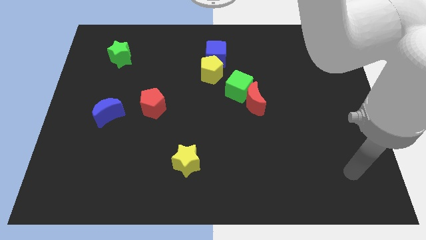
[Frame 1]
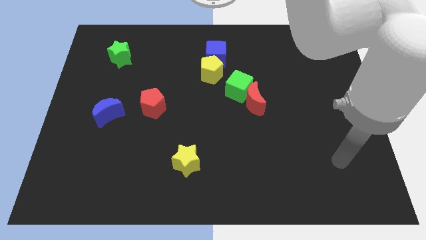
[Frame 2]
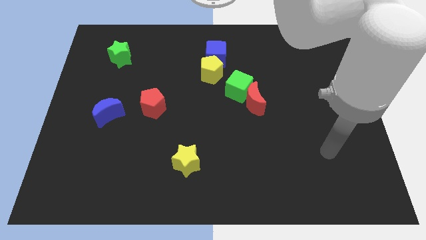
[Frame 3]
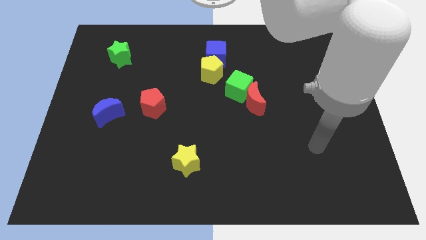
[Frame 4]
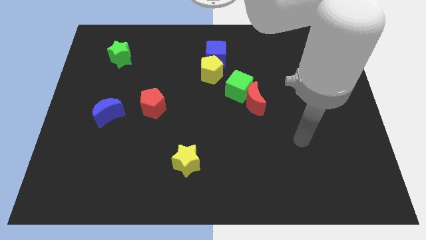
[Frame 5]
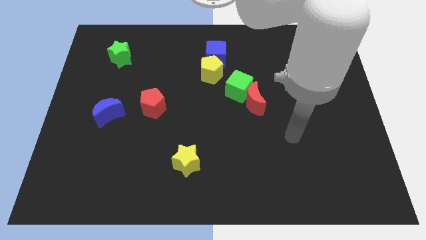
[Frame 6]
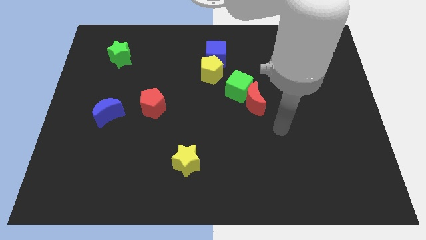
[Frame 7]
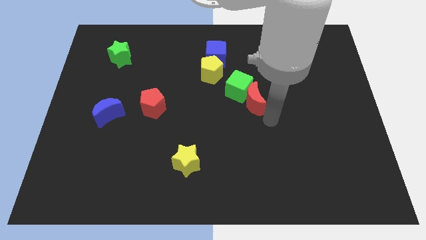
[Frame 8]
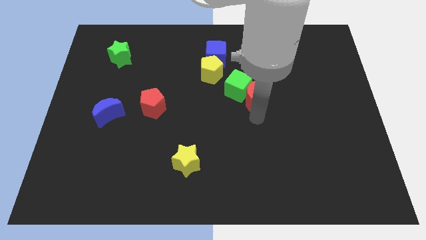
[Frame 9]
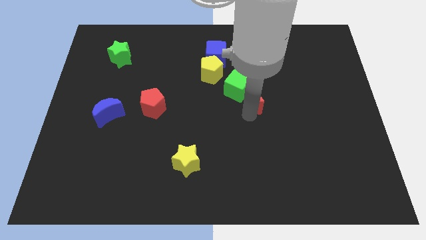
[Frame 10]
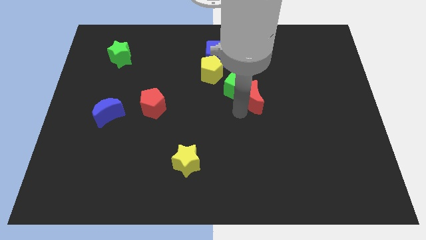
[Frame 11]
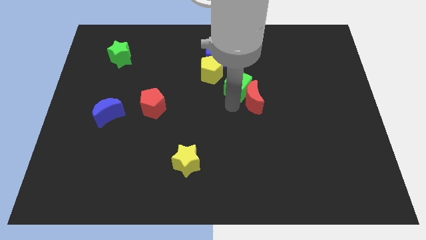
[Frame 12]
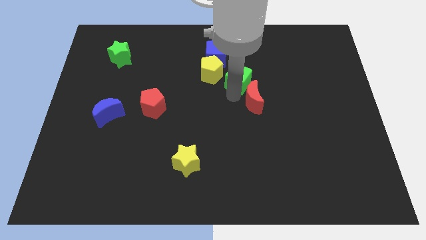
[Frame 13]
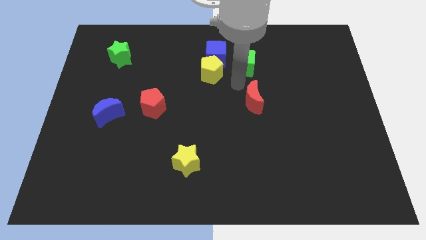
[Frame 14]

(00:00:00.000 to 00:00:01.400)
separate the red moon from the green cube

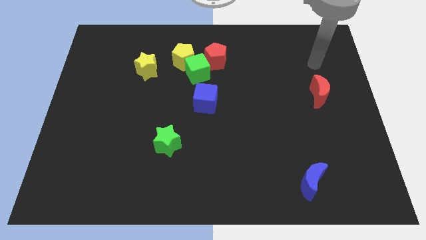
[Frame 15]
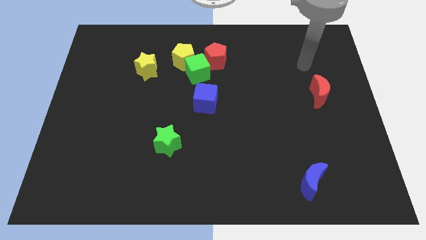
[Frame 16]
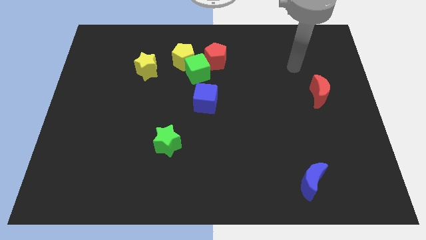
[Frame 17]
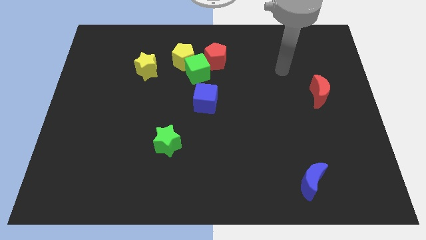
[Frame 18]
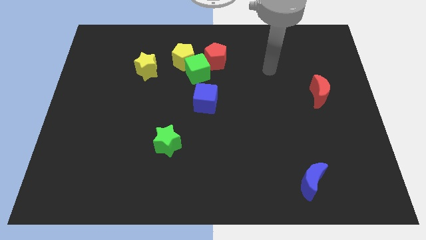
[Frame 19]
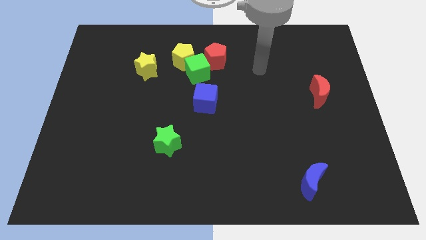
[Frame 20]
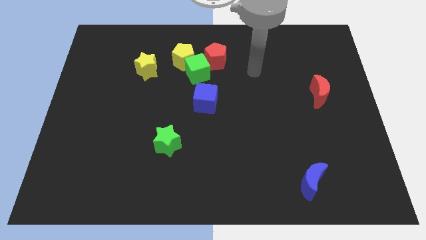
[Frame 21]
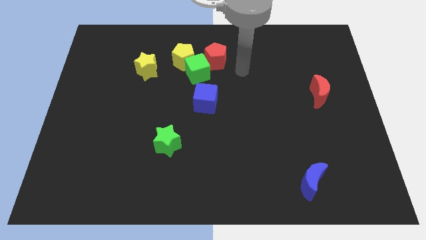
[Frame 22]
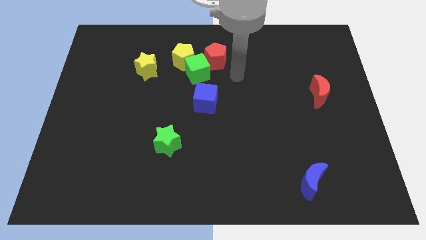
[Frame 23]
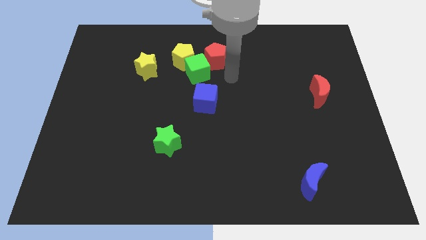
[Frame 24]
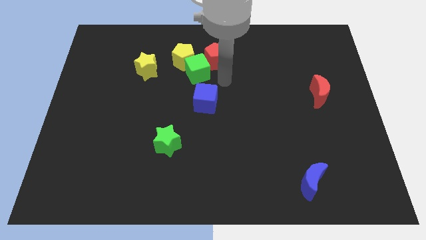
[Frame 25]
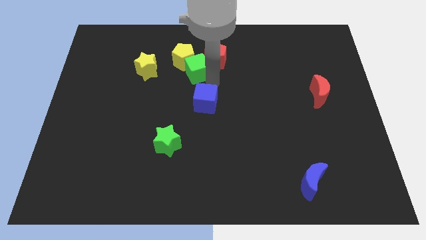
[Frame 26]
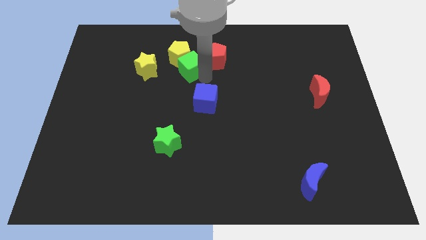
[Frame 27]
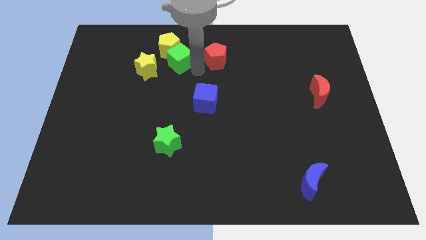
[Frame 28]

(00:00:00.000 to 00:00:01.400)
move the red pentagon away from the green cube and yellow pentagon

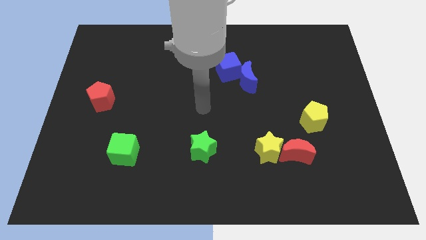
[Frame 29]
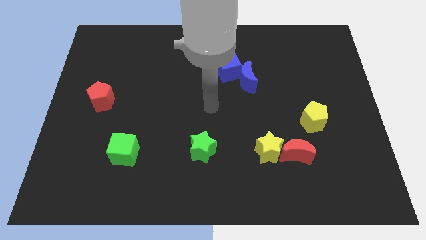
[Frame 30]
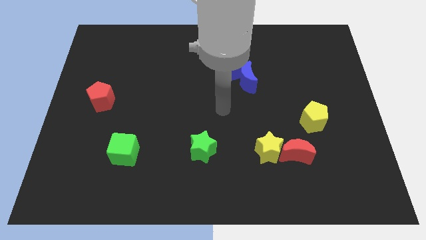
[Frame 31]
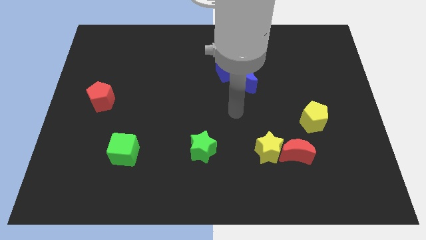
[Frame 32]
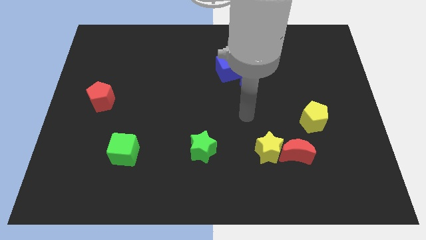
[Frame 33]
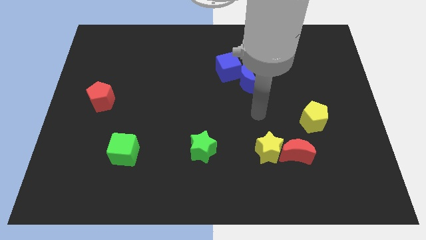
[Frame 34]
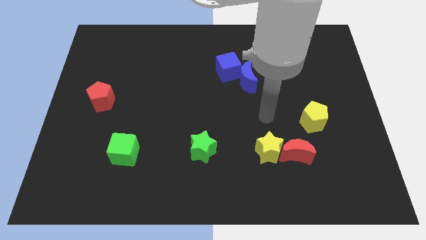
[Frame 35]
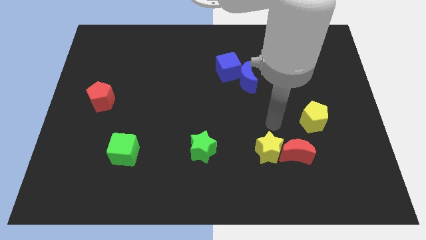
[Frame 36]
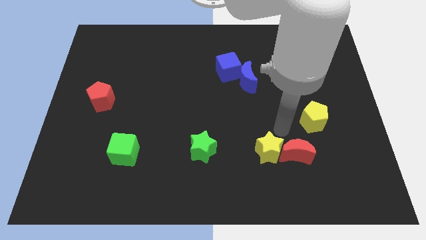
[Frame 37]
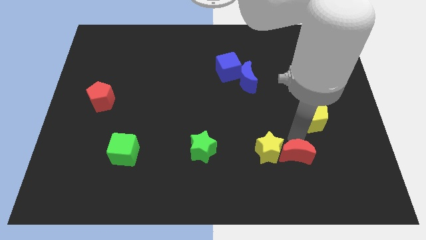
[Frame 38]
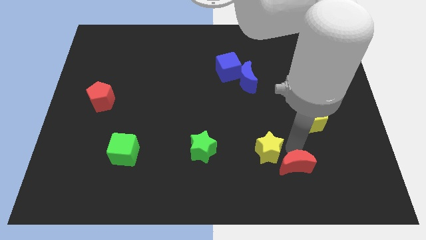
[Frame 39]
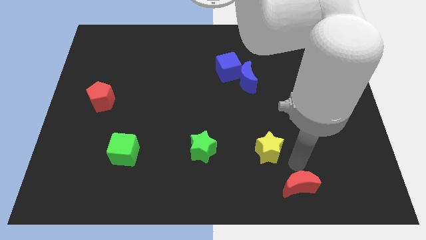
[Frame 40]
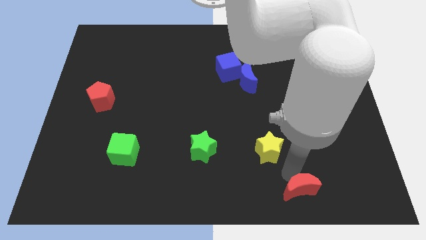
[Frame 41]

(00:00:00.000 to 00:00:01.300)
move the yellow star away from the red moon

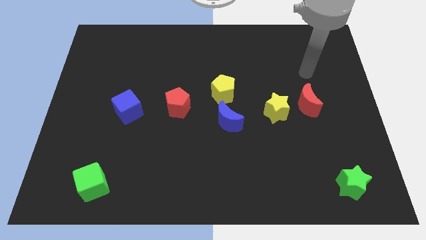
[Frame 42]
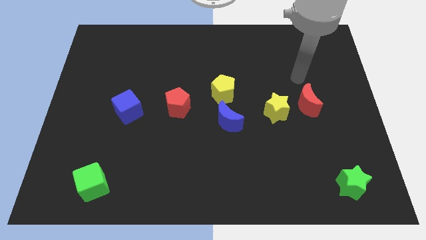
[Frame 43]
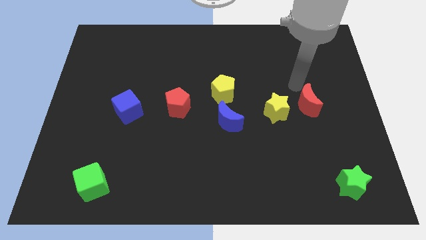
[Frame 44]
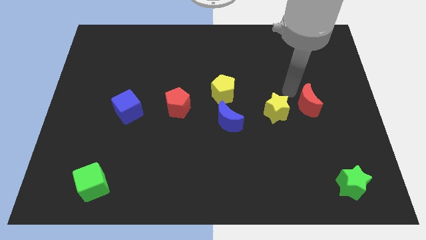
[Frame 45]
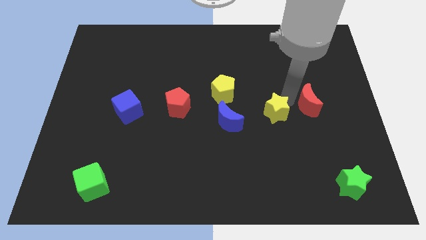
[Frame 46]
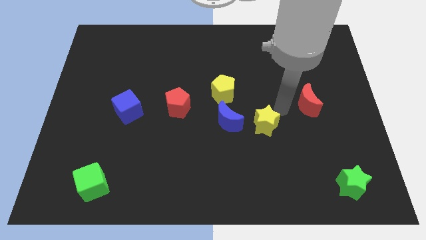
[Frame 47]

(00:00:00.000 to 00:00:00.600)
separate the red moon from the yellow star

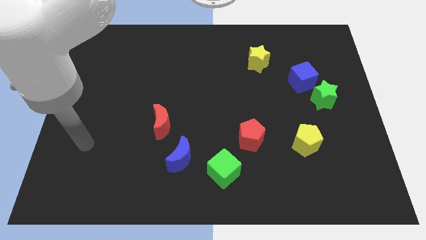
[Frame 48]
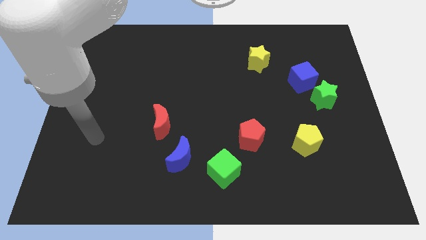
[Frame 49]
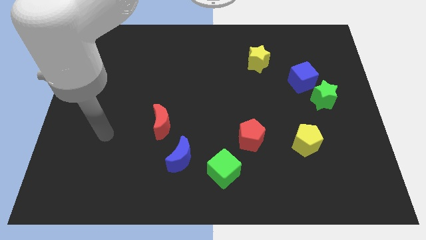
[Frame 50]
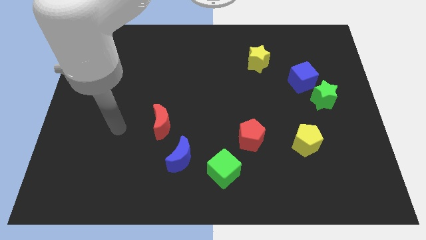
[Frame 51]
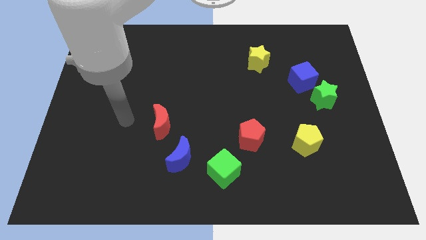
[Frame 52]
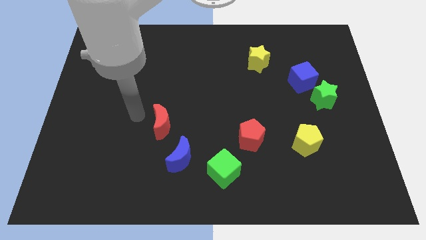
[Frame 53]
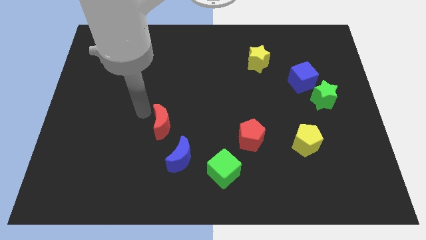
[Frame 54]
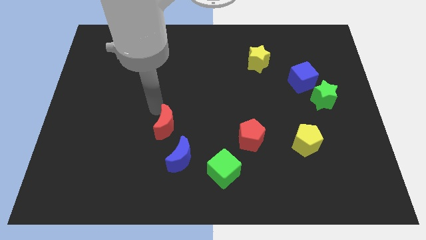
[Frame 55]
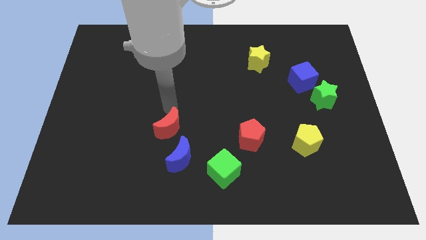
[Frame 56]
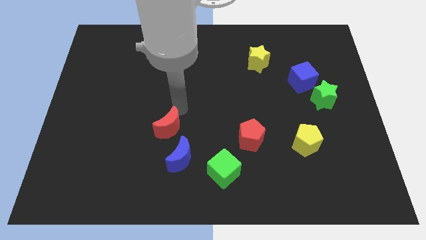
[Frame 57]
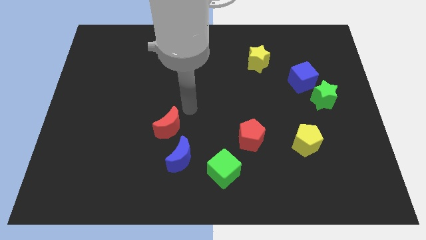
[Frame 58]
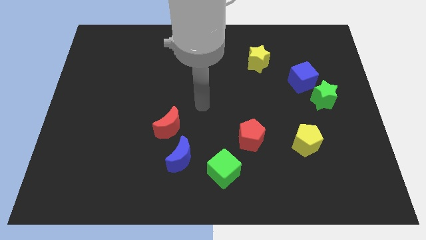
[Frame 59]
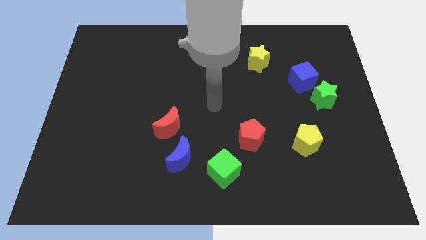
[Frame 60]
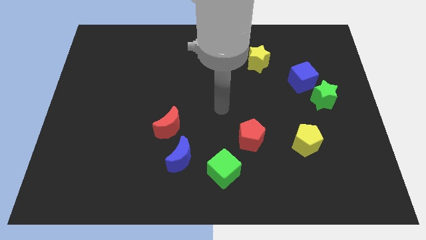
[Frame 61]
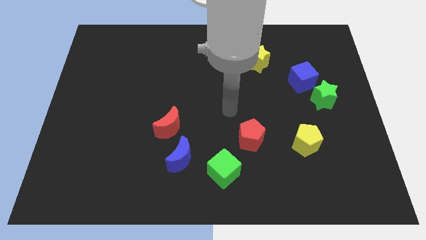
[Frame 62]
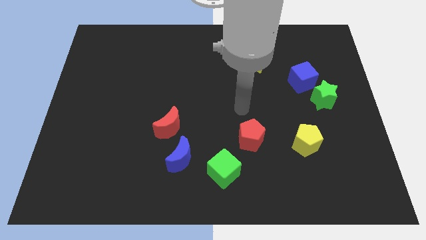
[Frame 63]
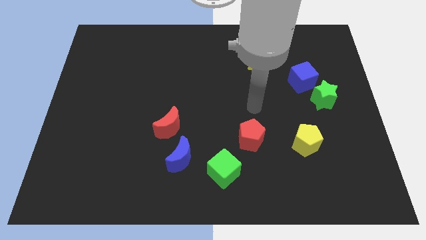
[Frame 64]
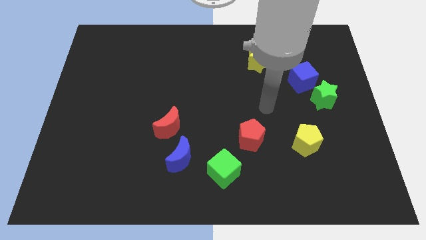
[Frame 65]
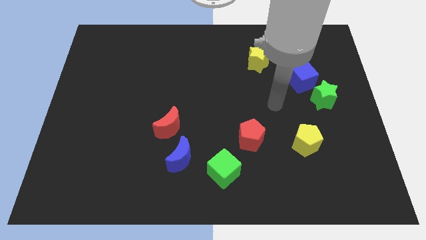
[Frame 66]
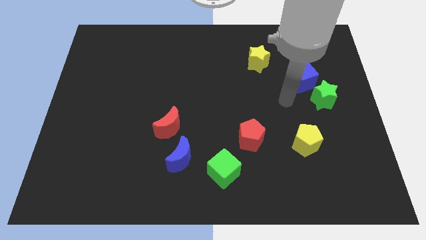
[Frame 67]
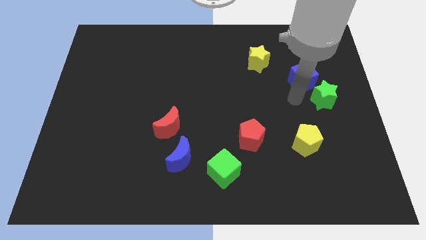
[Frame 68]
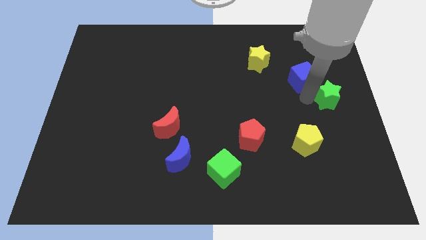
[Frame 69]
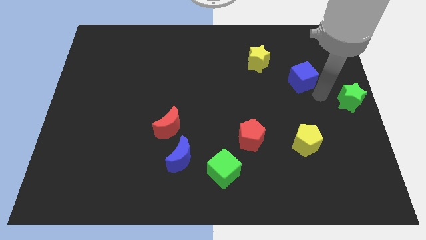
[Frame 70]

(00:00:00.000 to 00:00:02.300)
pull the blue cube apart from the green star

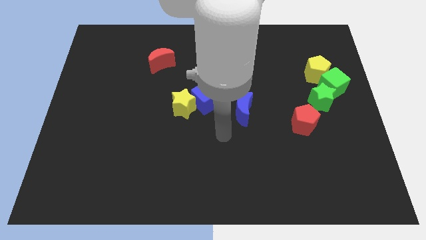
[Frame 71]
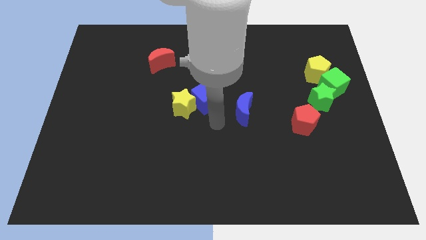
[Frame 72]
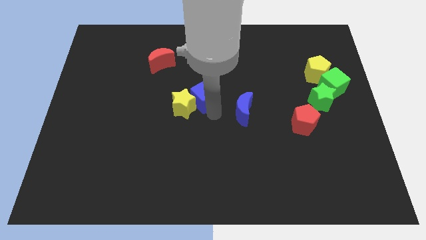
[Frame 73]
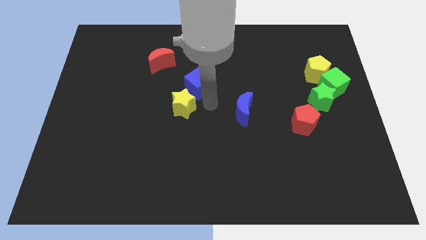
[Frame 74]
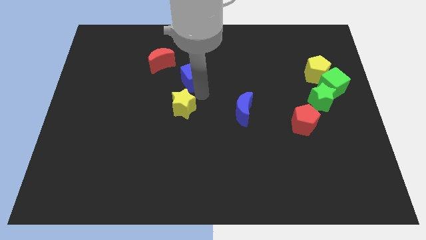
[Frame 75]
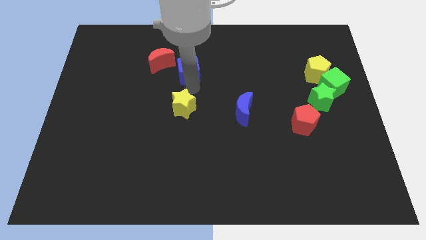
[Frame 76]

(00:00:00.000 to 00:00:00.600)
pull the yellow star apart from the blue cube

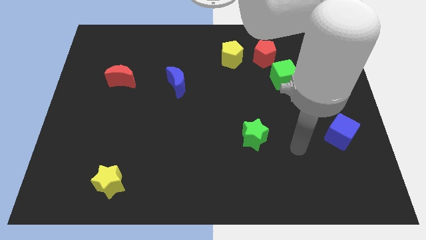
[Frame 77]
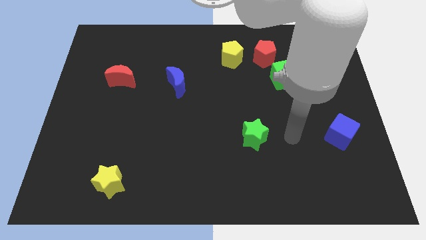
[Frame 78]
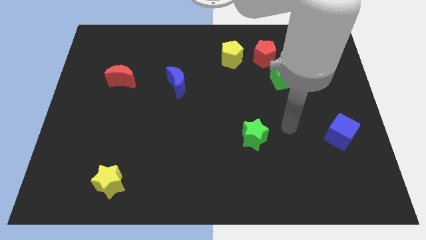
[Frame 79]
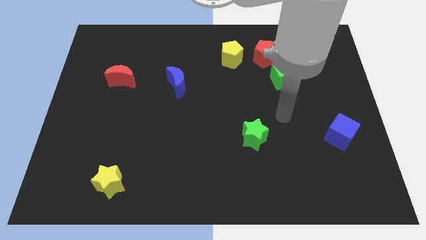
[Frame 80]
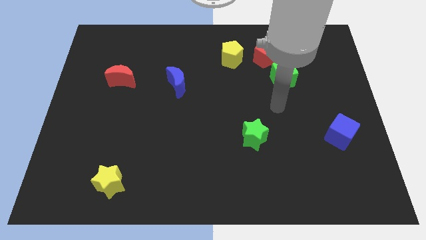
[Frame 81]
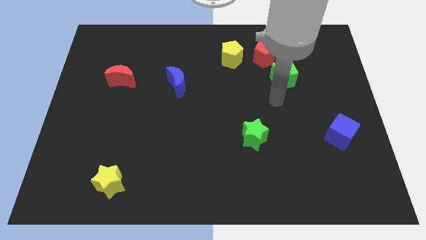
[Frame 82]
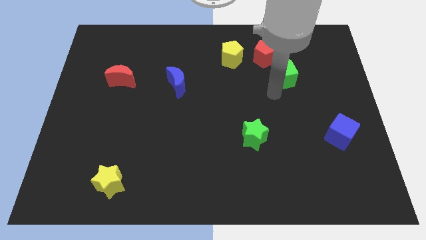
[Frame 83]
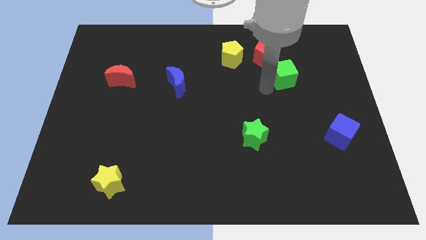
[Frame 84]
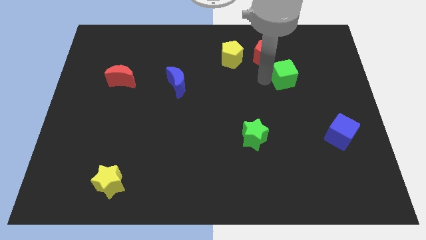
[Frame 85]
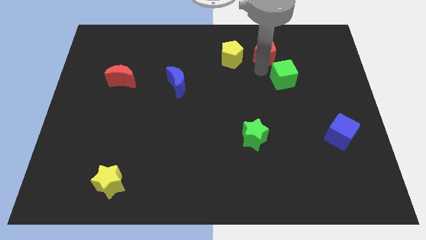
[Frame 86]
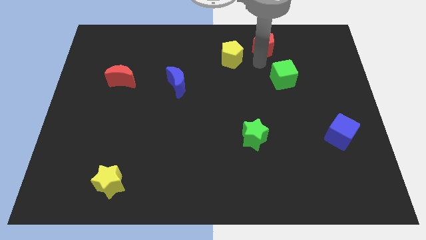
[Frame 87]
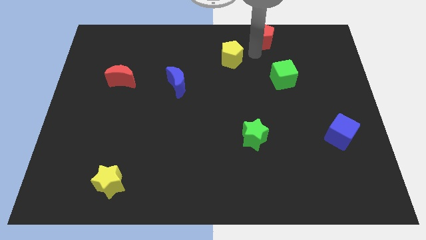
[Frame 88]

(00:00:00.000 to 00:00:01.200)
pull the yellow pentagon apart from the red pentagon

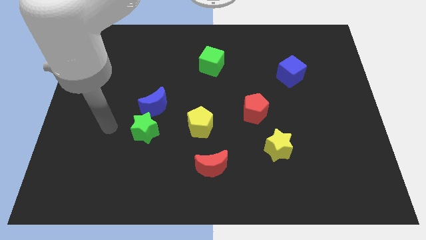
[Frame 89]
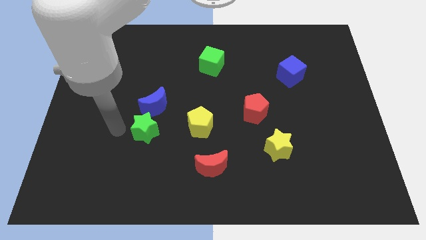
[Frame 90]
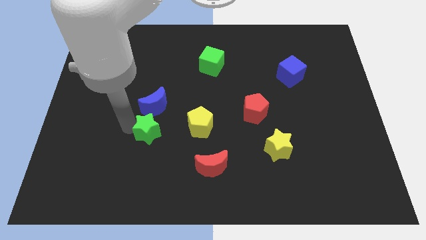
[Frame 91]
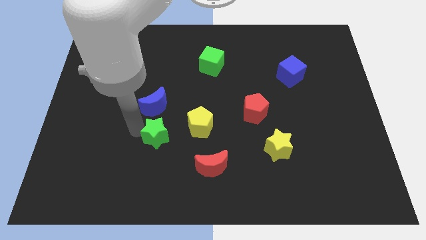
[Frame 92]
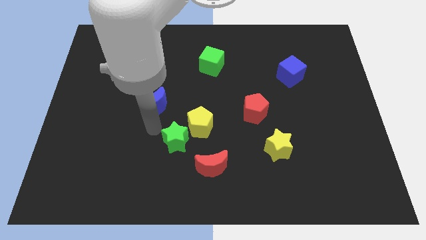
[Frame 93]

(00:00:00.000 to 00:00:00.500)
move the blue moon away from the green star

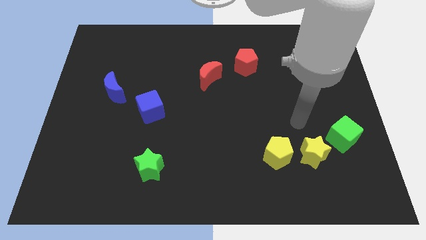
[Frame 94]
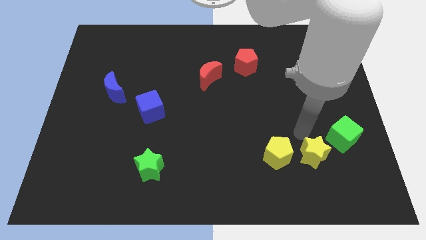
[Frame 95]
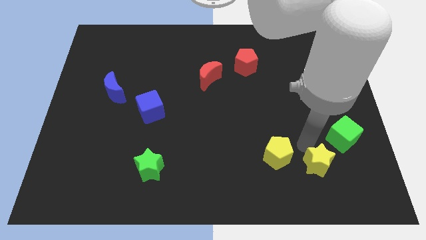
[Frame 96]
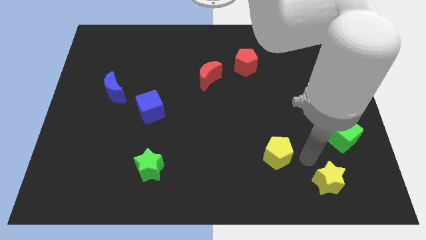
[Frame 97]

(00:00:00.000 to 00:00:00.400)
move the yellow pentagon away from the yellow star
